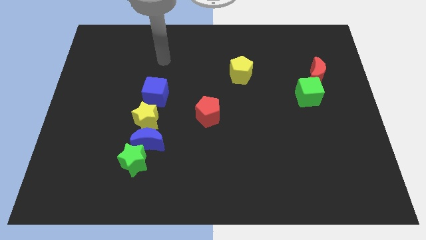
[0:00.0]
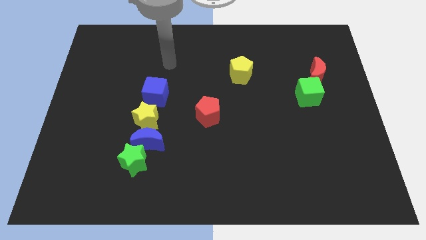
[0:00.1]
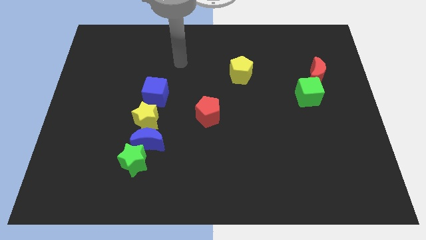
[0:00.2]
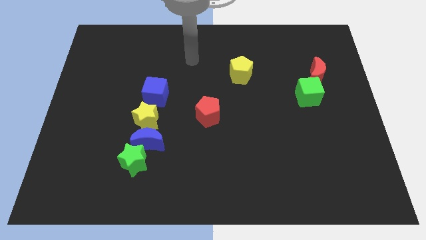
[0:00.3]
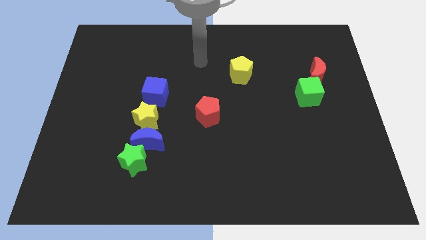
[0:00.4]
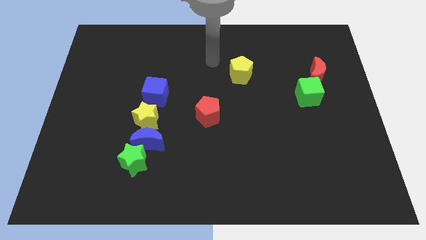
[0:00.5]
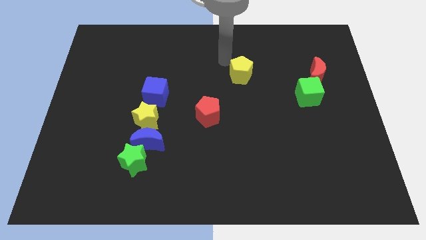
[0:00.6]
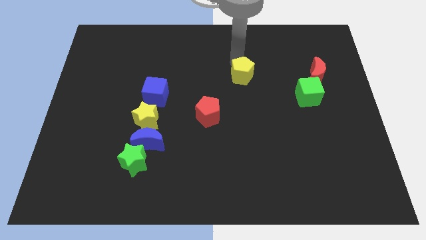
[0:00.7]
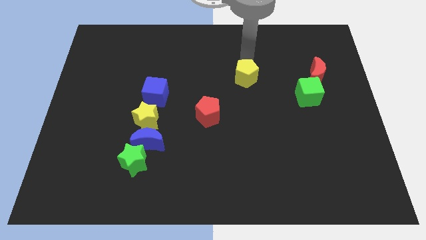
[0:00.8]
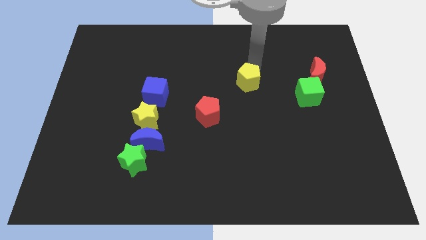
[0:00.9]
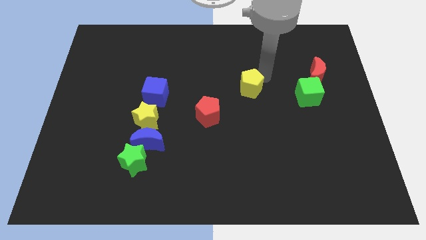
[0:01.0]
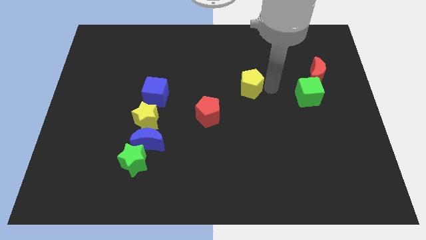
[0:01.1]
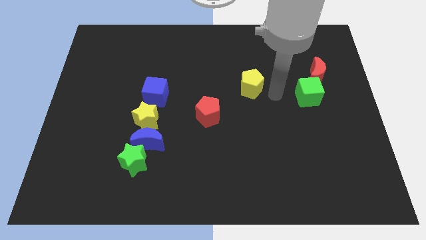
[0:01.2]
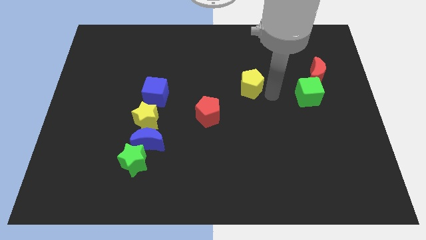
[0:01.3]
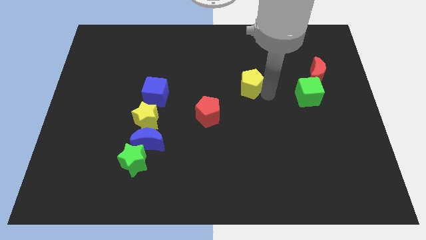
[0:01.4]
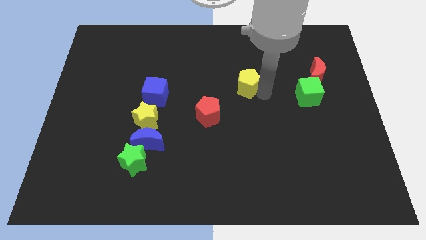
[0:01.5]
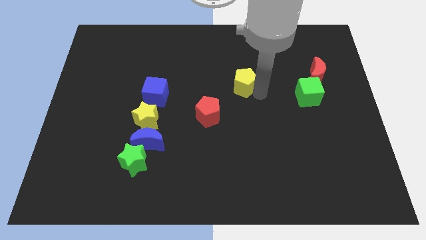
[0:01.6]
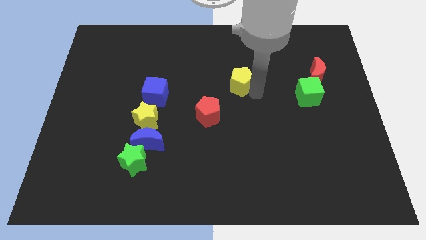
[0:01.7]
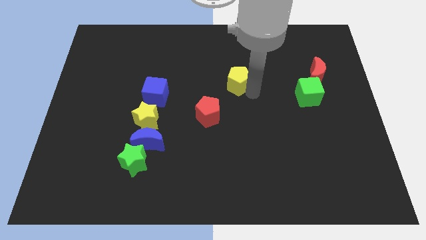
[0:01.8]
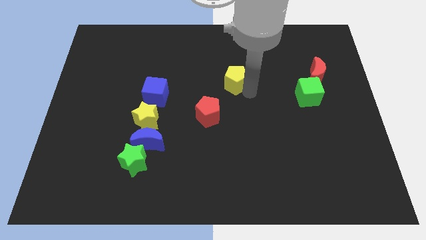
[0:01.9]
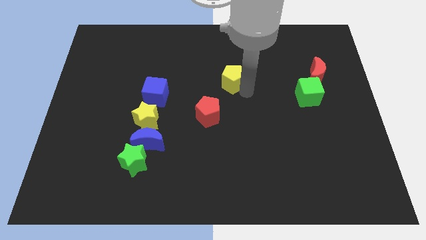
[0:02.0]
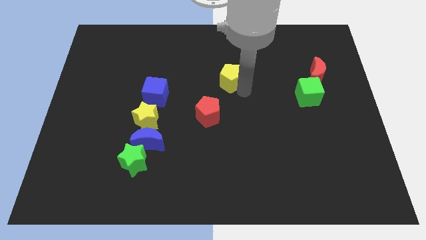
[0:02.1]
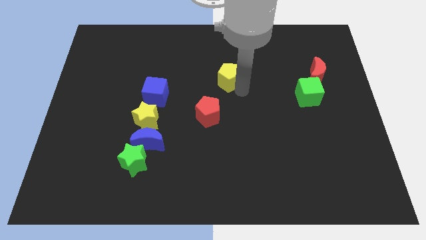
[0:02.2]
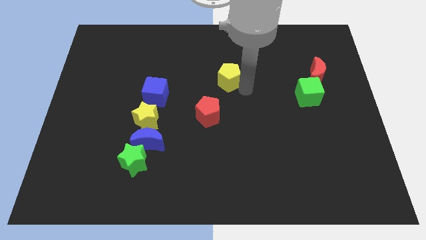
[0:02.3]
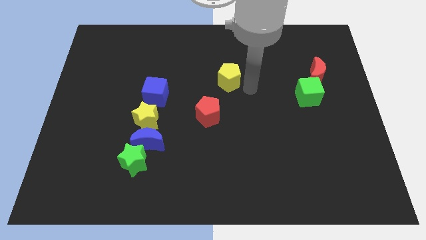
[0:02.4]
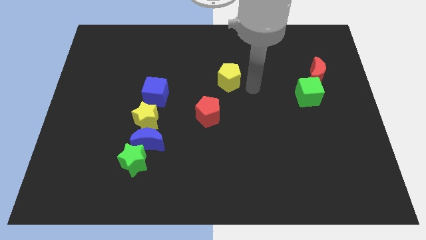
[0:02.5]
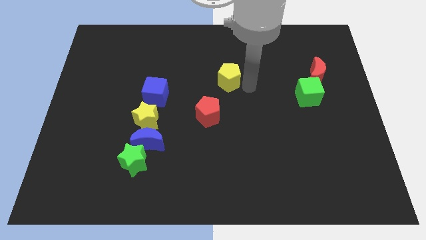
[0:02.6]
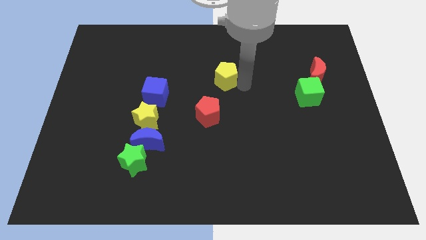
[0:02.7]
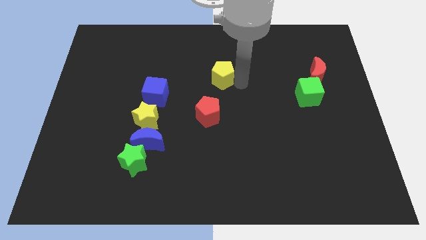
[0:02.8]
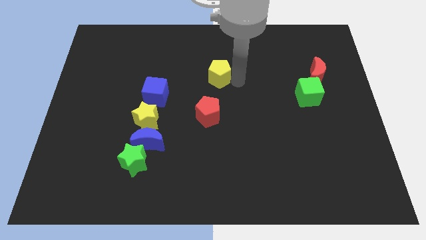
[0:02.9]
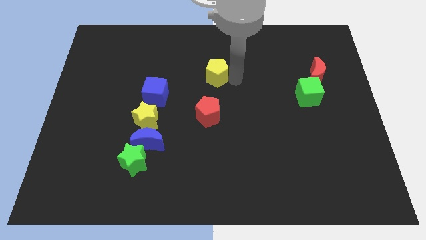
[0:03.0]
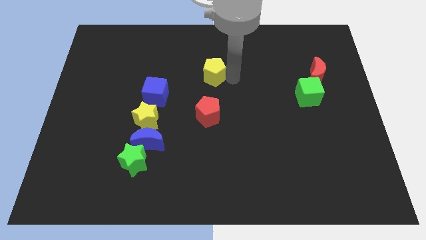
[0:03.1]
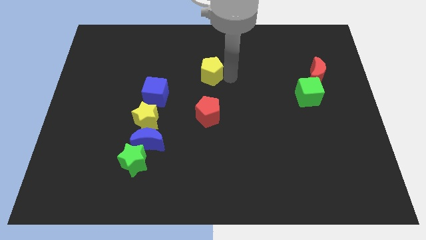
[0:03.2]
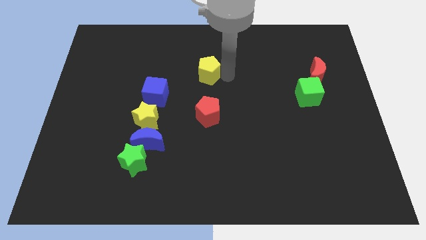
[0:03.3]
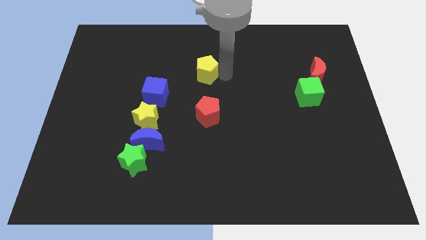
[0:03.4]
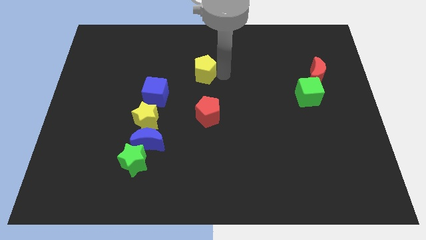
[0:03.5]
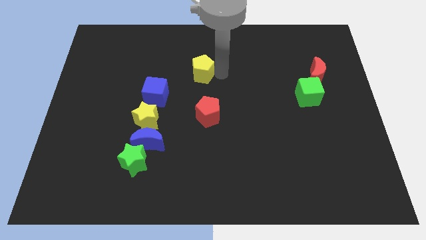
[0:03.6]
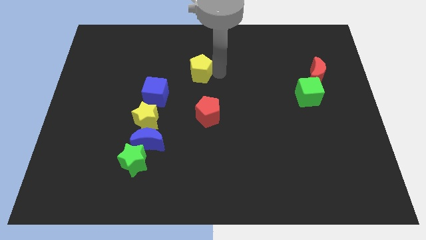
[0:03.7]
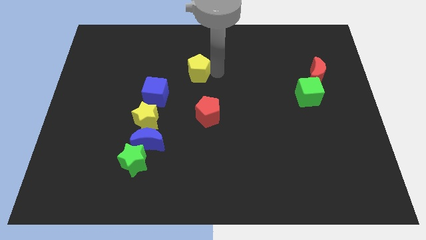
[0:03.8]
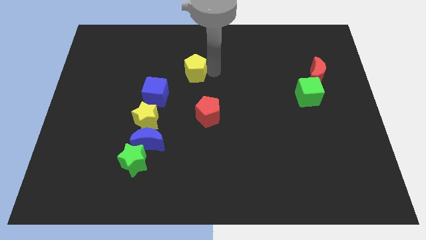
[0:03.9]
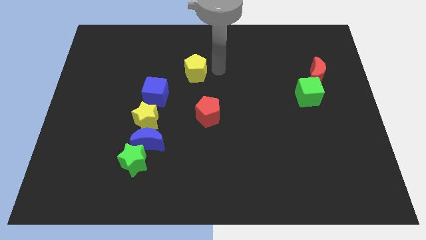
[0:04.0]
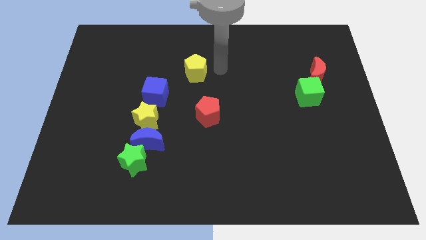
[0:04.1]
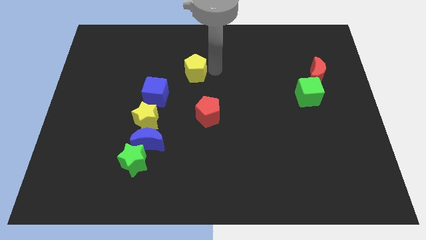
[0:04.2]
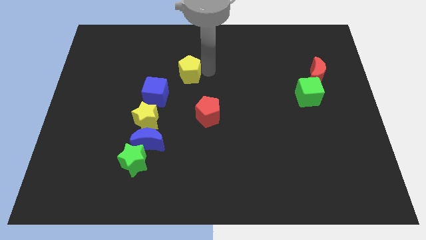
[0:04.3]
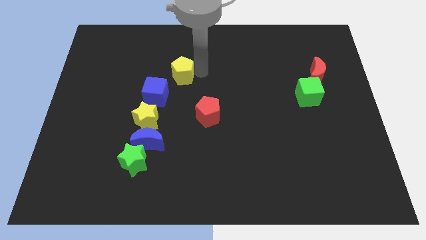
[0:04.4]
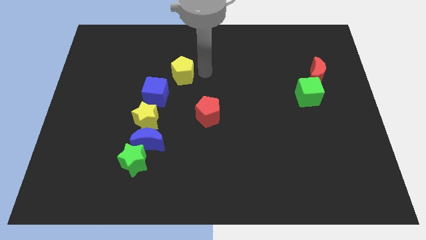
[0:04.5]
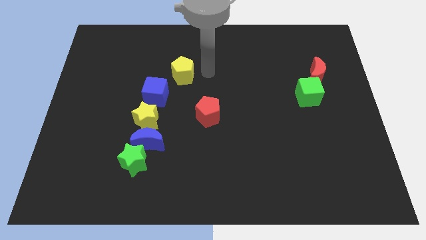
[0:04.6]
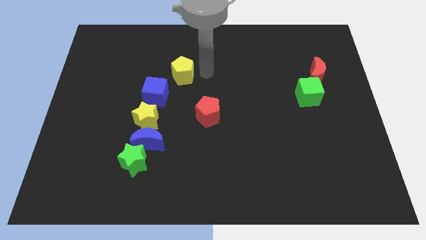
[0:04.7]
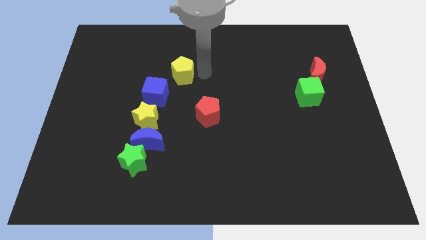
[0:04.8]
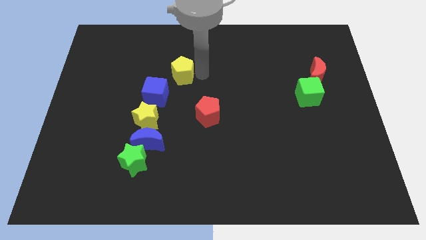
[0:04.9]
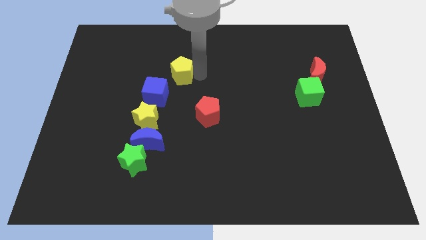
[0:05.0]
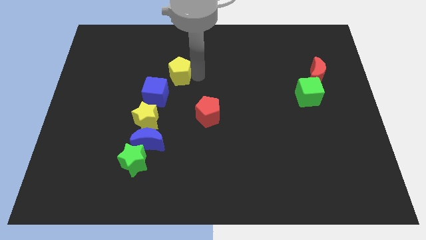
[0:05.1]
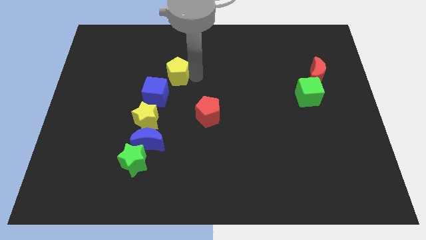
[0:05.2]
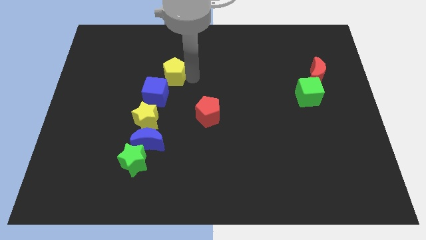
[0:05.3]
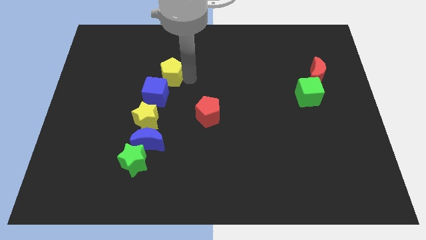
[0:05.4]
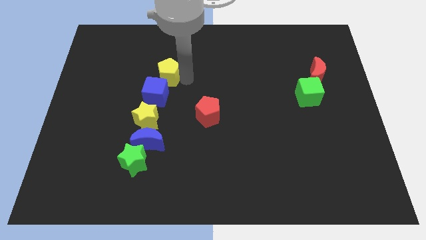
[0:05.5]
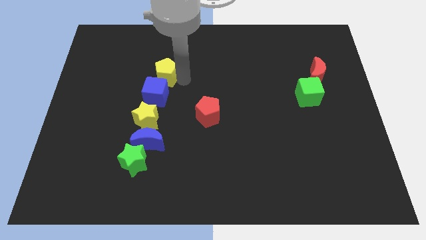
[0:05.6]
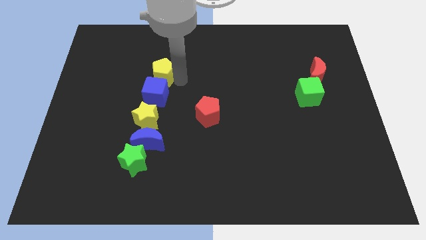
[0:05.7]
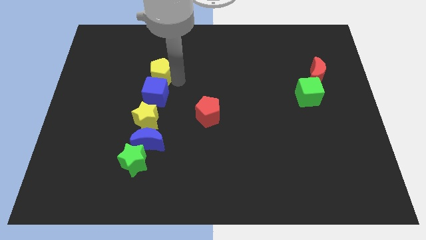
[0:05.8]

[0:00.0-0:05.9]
push the yellow pentagon left

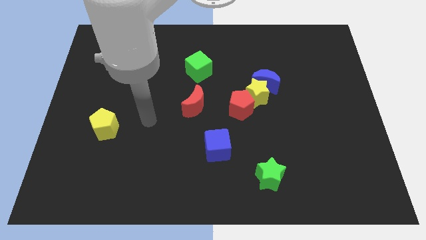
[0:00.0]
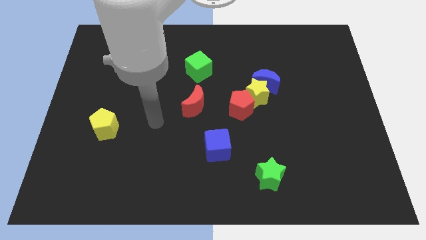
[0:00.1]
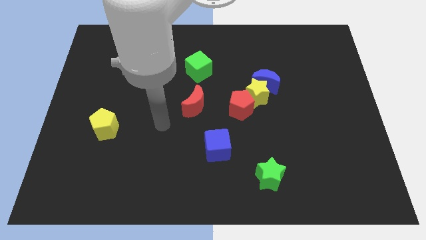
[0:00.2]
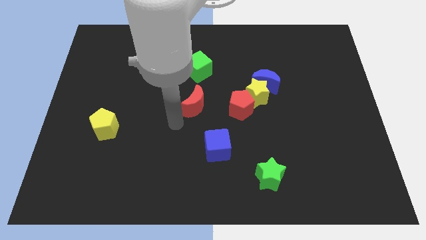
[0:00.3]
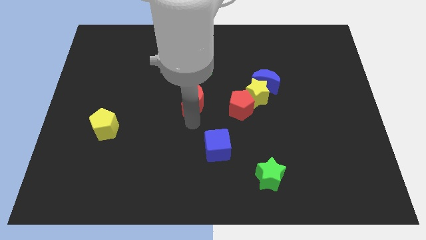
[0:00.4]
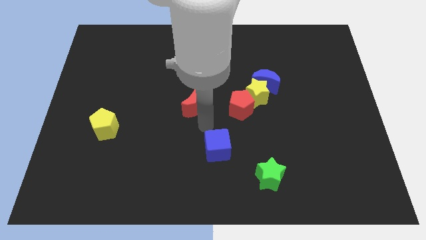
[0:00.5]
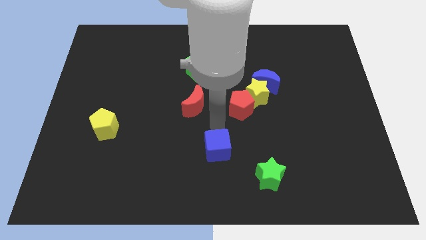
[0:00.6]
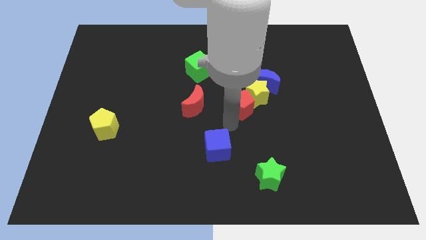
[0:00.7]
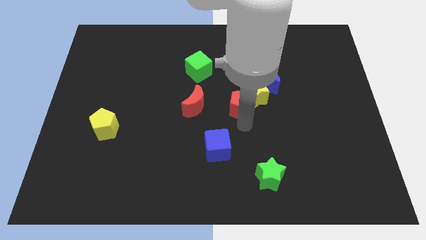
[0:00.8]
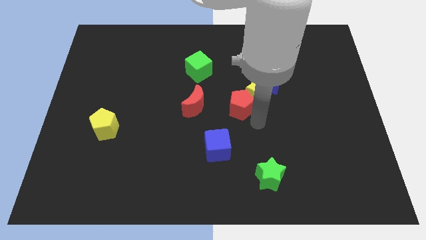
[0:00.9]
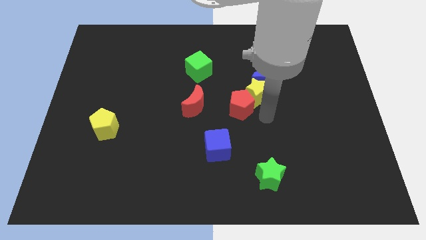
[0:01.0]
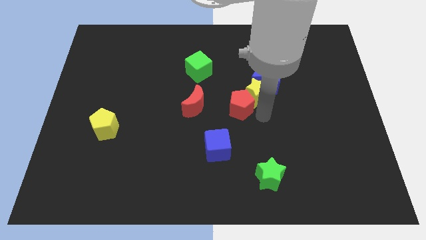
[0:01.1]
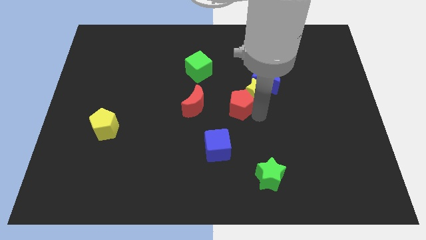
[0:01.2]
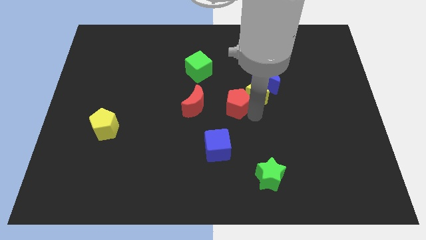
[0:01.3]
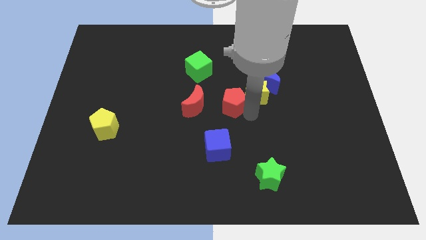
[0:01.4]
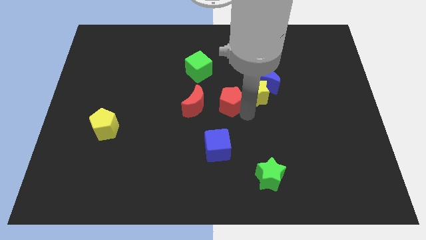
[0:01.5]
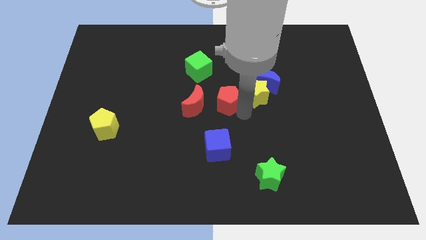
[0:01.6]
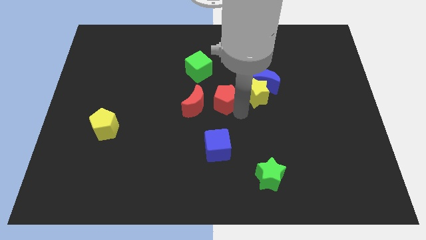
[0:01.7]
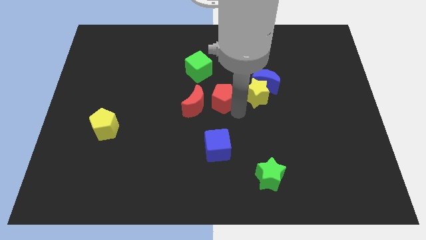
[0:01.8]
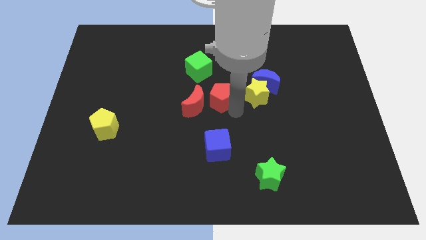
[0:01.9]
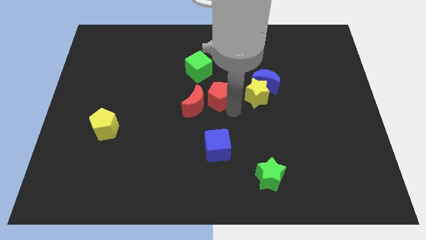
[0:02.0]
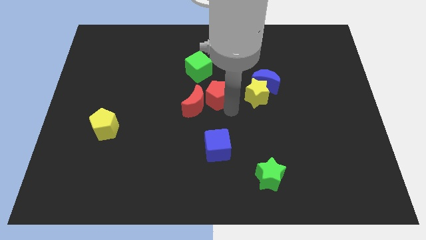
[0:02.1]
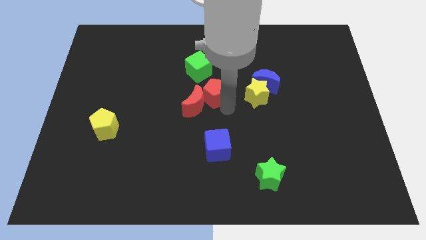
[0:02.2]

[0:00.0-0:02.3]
slightly push the red pentagon upwards and to the left diagonally

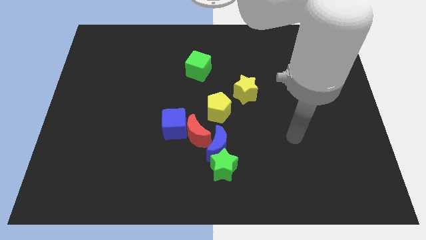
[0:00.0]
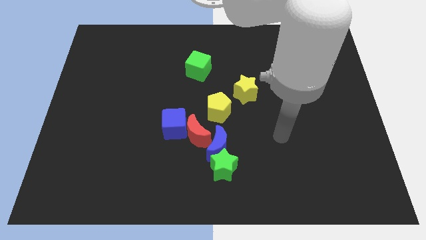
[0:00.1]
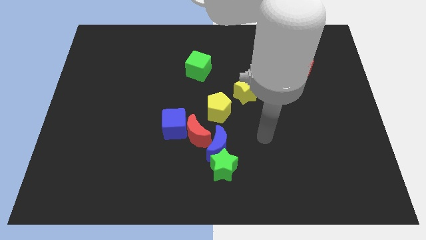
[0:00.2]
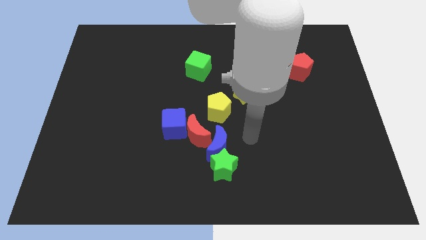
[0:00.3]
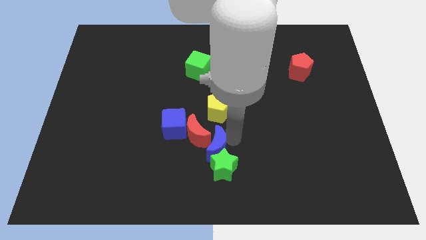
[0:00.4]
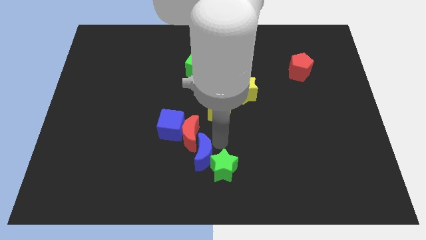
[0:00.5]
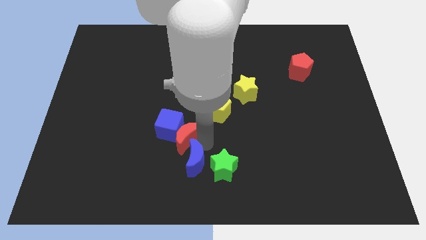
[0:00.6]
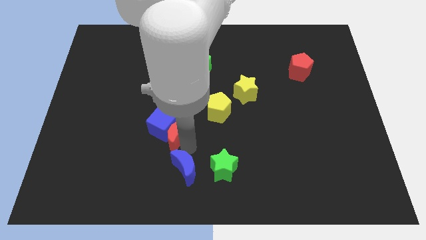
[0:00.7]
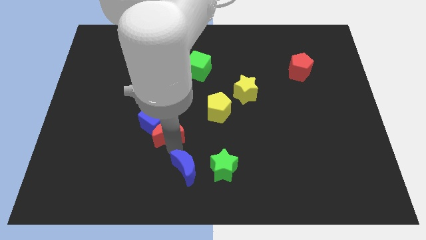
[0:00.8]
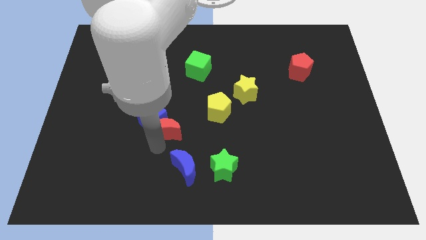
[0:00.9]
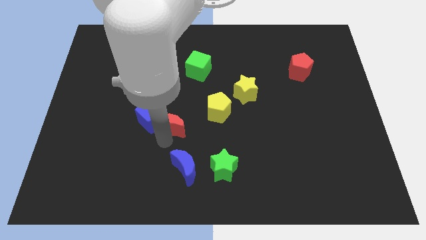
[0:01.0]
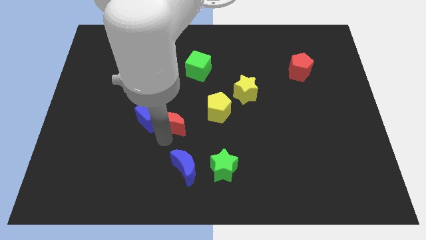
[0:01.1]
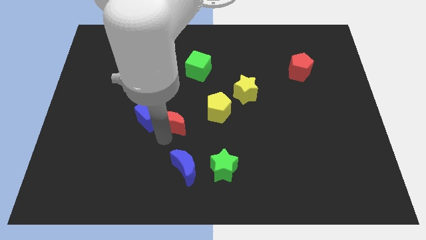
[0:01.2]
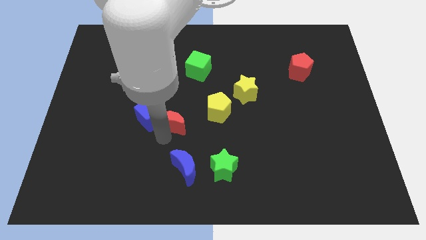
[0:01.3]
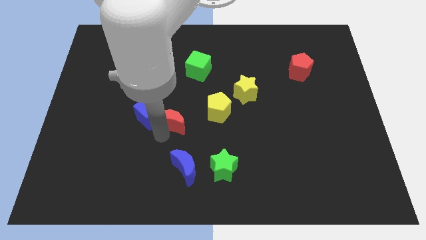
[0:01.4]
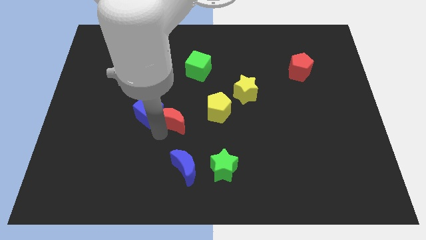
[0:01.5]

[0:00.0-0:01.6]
slide the blue cube slightly up and to the left
